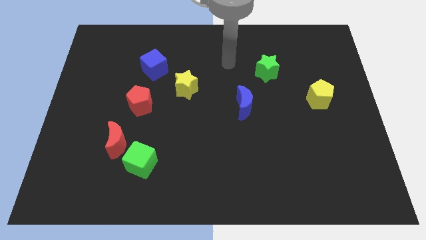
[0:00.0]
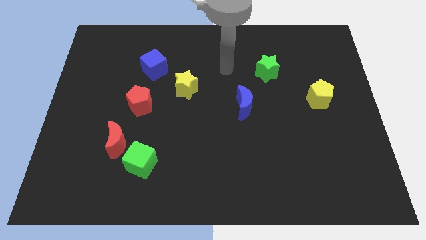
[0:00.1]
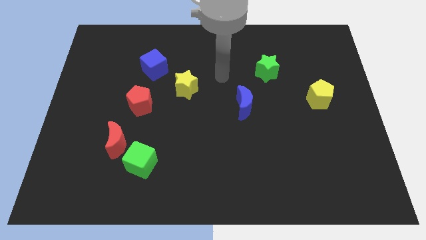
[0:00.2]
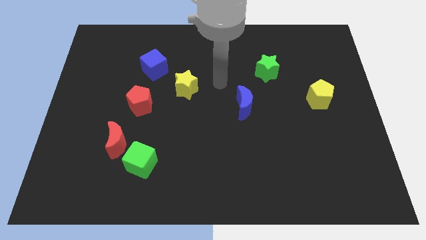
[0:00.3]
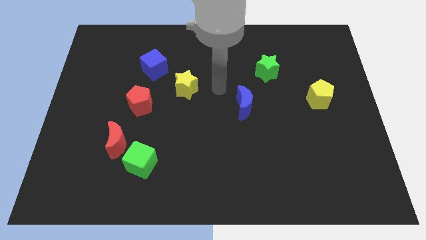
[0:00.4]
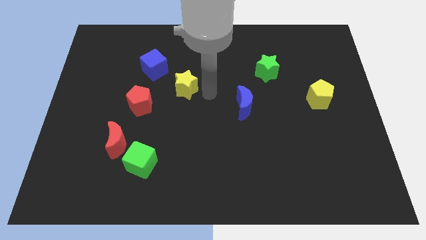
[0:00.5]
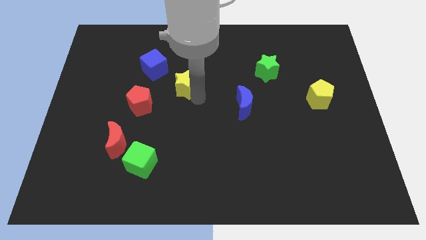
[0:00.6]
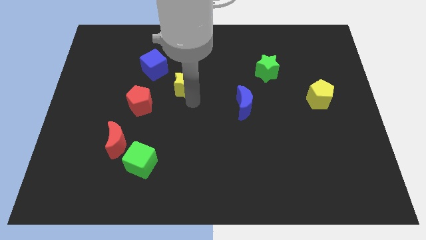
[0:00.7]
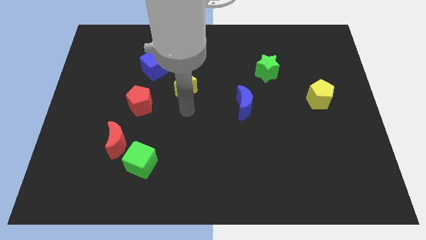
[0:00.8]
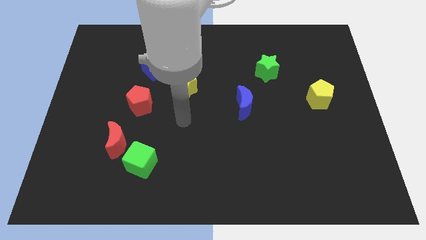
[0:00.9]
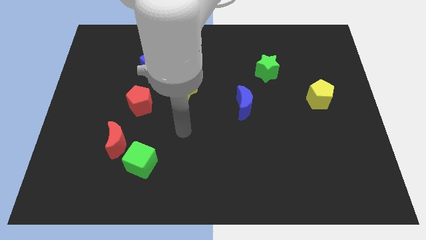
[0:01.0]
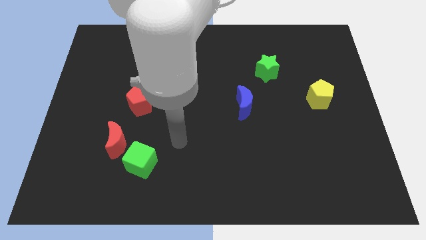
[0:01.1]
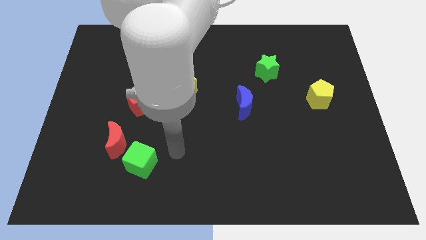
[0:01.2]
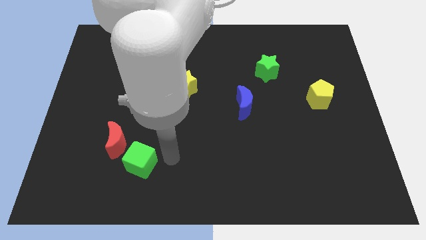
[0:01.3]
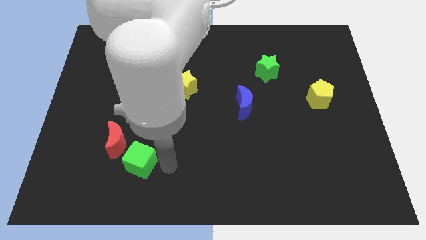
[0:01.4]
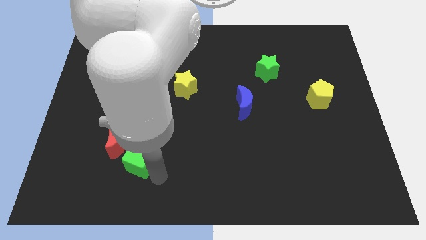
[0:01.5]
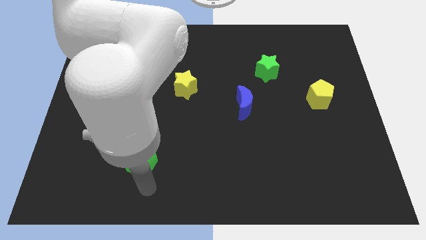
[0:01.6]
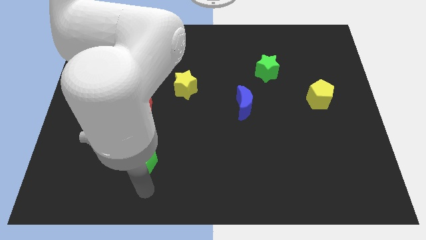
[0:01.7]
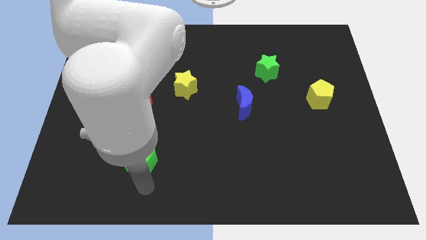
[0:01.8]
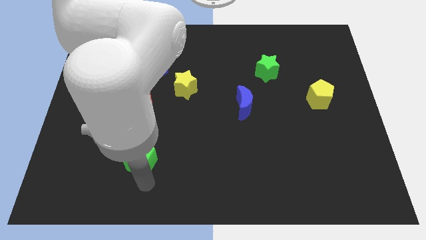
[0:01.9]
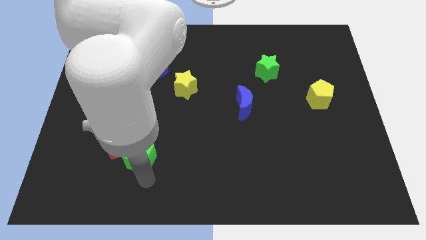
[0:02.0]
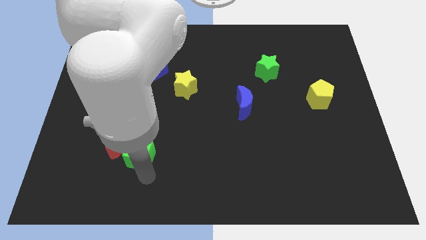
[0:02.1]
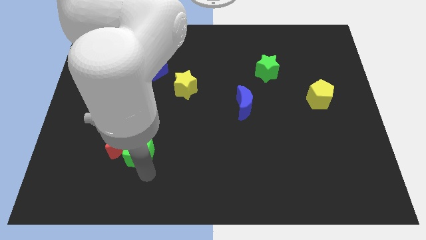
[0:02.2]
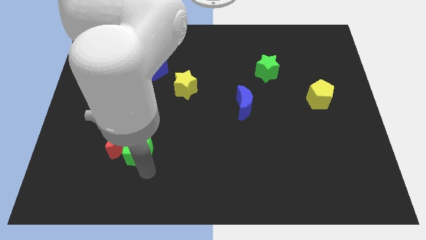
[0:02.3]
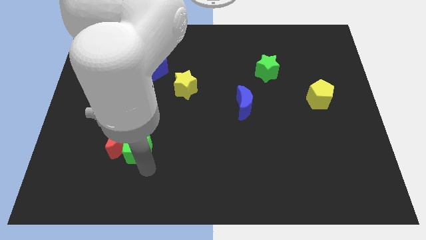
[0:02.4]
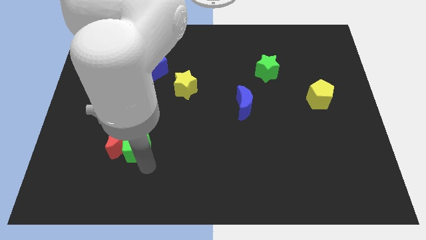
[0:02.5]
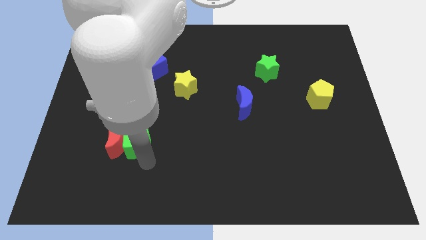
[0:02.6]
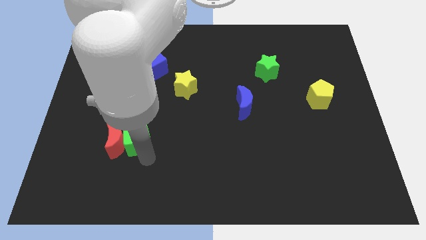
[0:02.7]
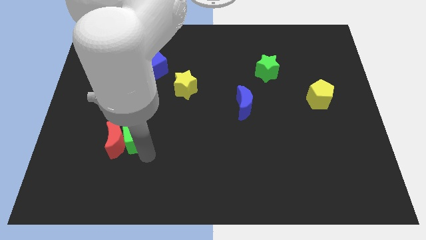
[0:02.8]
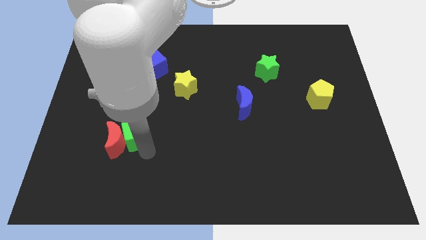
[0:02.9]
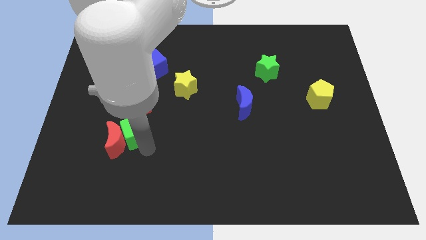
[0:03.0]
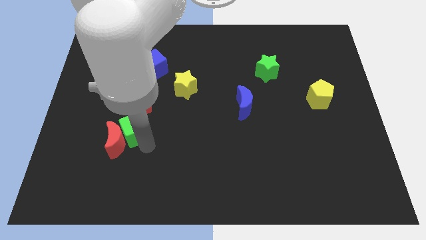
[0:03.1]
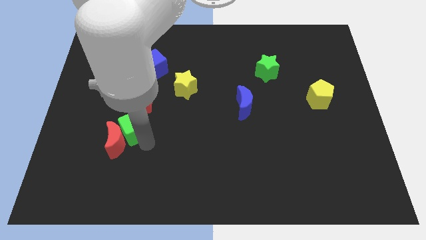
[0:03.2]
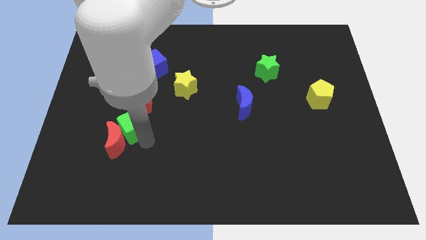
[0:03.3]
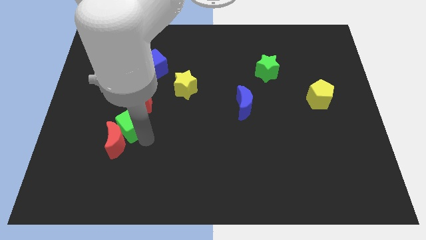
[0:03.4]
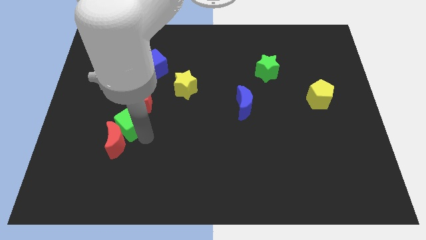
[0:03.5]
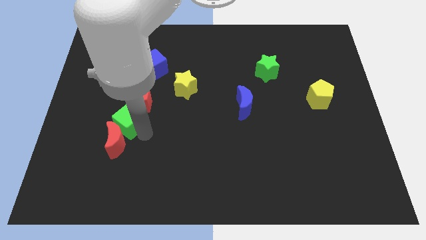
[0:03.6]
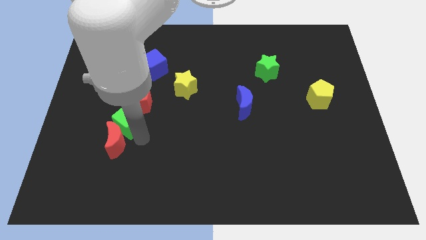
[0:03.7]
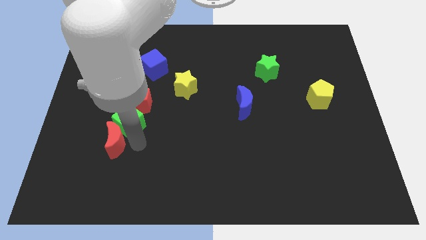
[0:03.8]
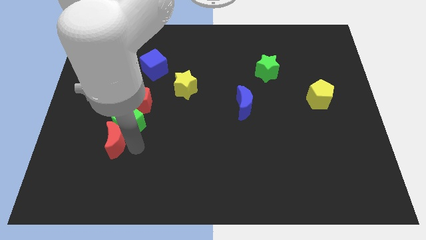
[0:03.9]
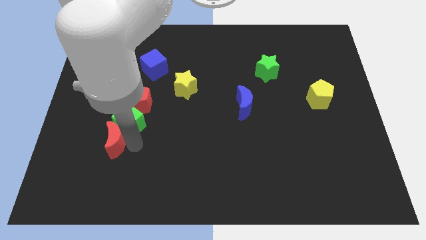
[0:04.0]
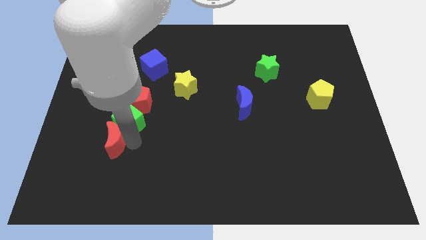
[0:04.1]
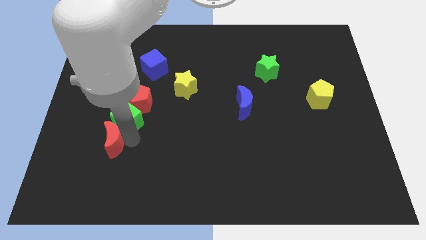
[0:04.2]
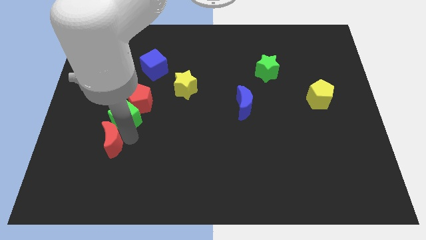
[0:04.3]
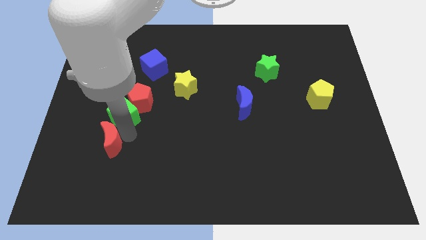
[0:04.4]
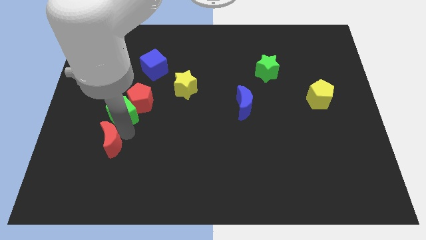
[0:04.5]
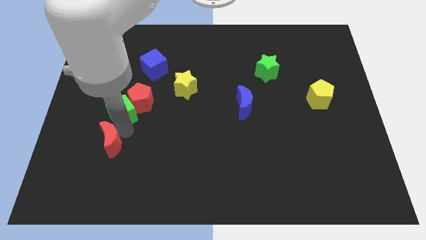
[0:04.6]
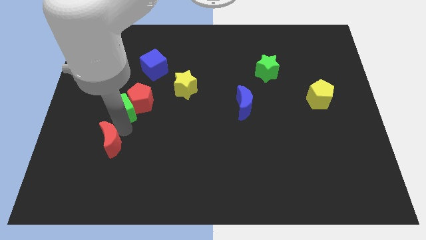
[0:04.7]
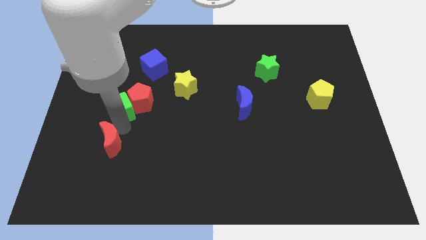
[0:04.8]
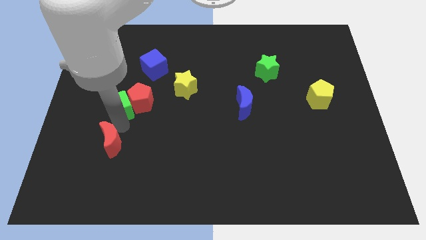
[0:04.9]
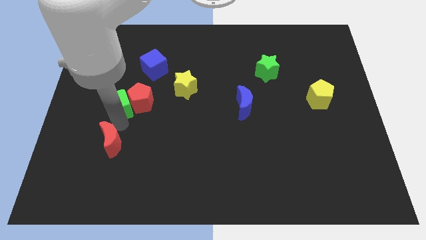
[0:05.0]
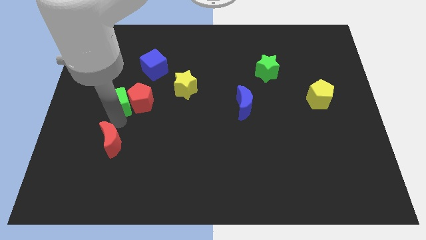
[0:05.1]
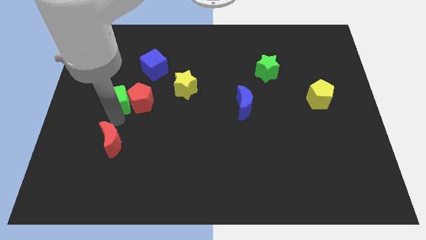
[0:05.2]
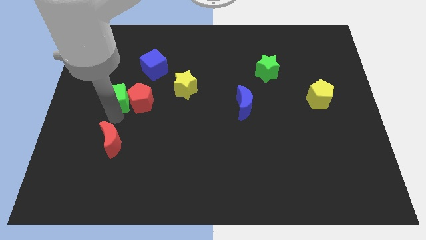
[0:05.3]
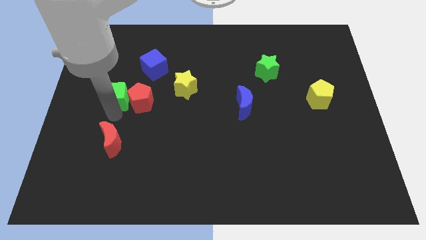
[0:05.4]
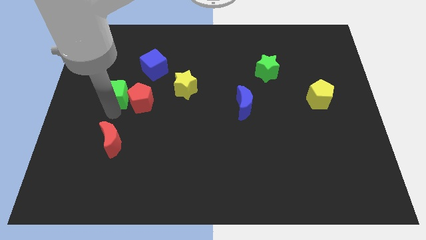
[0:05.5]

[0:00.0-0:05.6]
move the green cube diagonally down and to the left of the blue cube

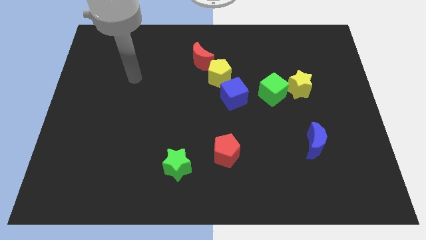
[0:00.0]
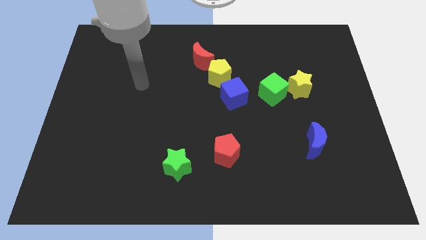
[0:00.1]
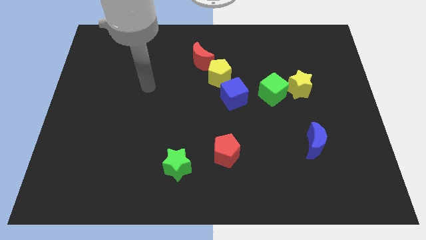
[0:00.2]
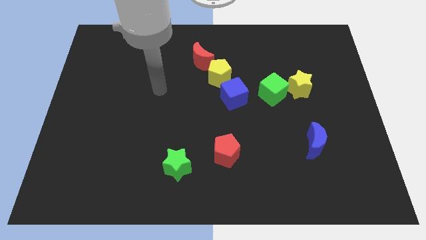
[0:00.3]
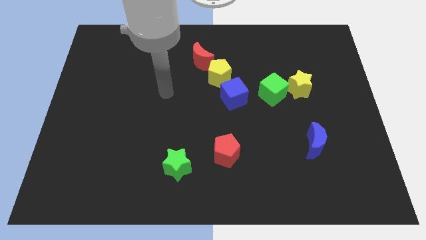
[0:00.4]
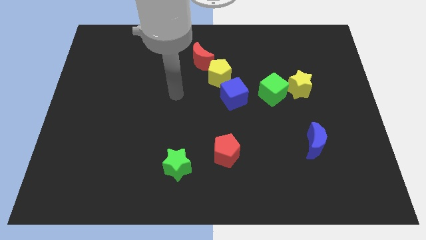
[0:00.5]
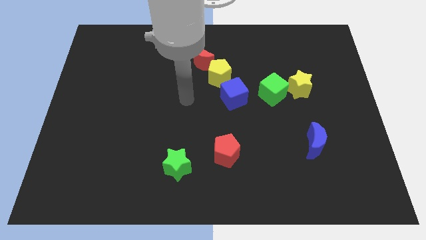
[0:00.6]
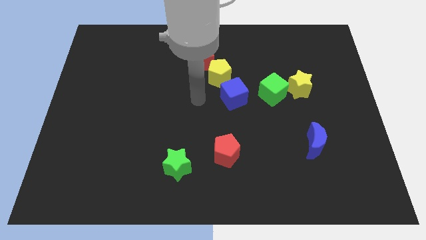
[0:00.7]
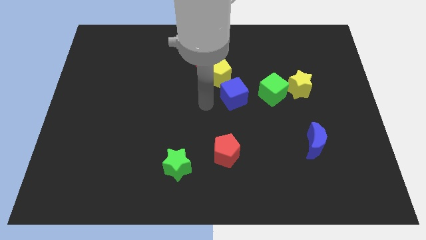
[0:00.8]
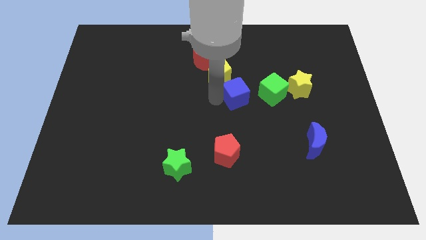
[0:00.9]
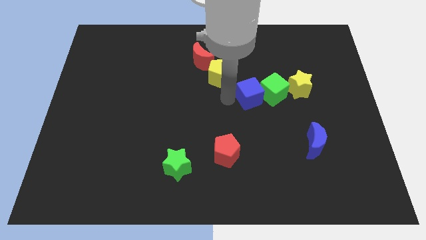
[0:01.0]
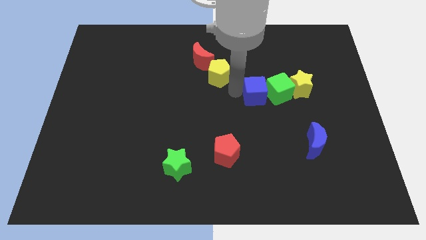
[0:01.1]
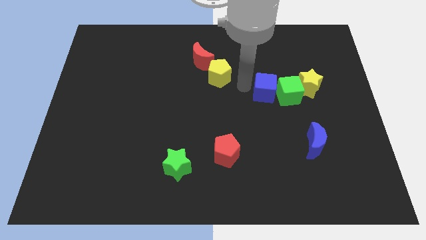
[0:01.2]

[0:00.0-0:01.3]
slide the green cube above the blue moon

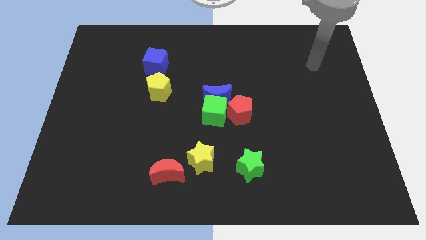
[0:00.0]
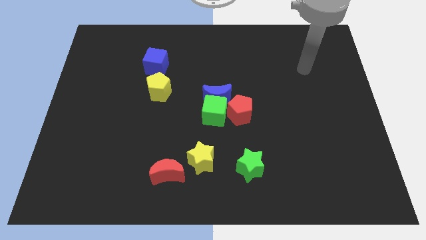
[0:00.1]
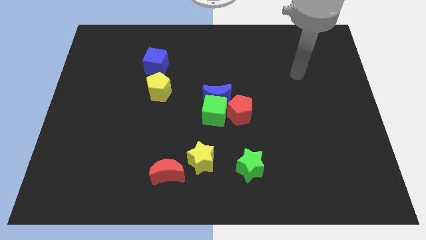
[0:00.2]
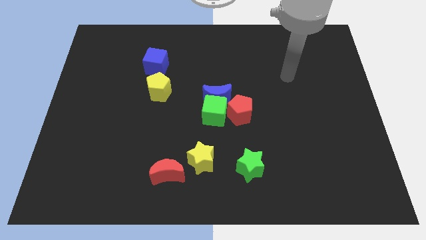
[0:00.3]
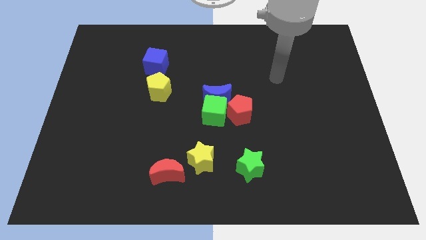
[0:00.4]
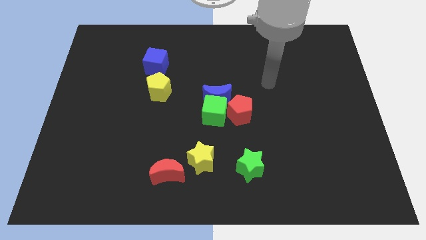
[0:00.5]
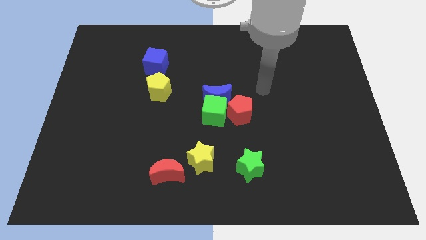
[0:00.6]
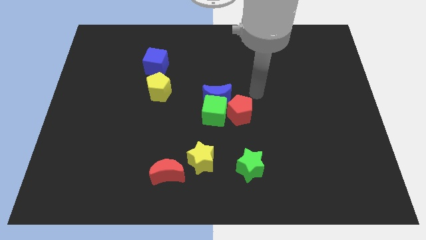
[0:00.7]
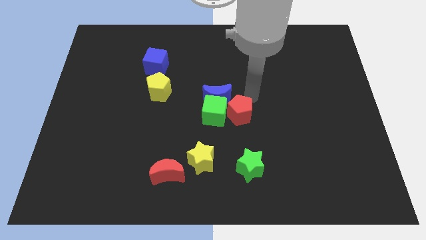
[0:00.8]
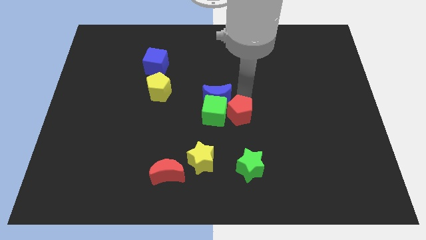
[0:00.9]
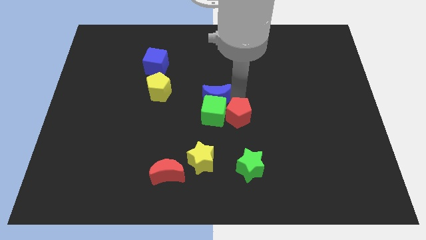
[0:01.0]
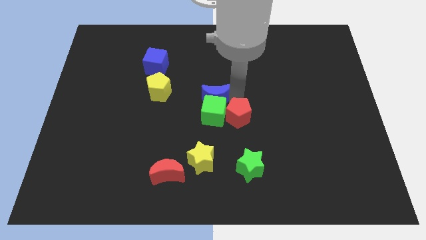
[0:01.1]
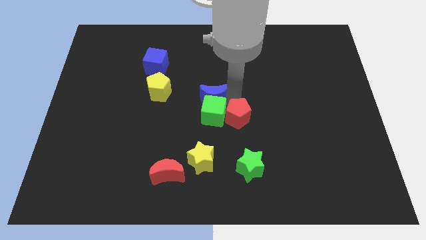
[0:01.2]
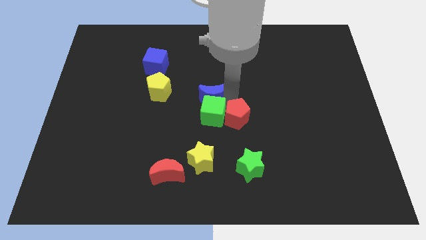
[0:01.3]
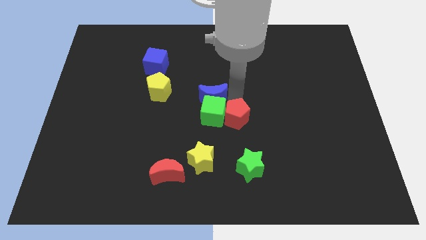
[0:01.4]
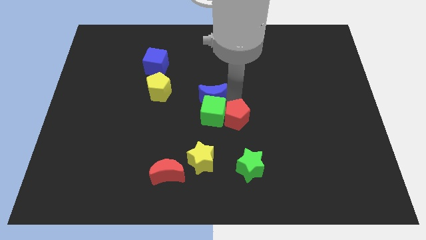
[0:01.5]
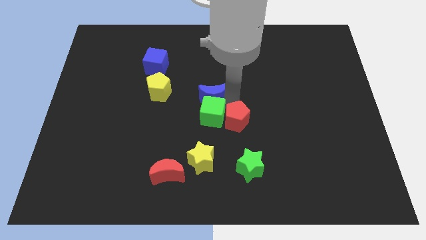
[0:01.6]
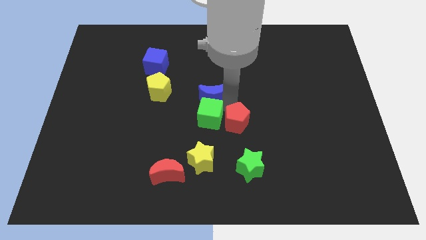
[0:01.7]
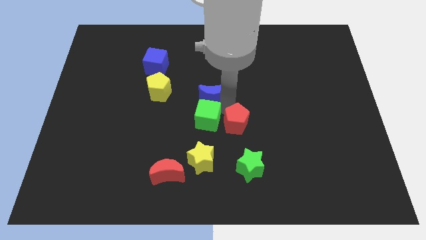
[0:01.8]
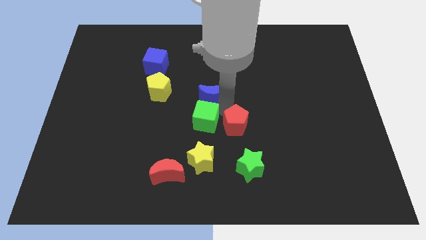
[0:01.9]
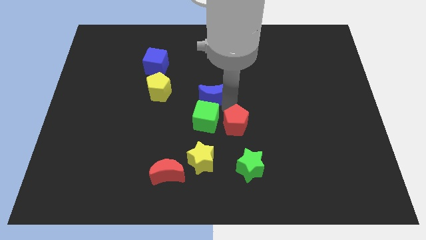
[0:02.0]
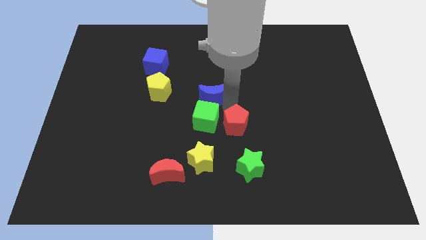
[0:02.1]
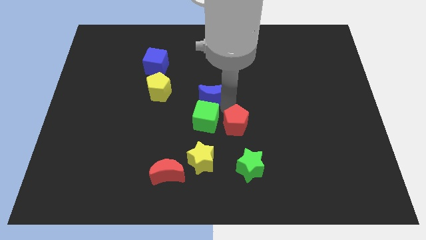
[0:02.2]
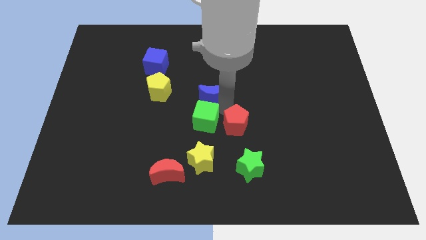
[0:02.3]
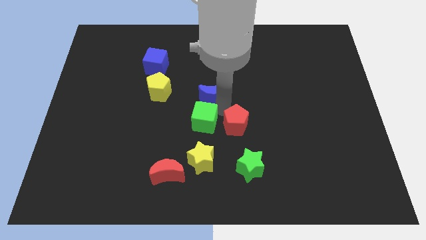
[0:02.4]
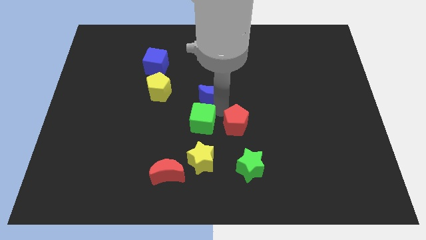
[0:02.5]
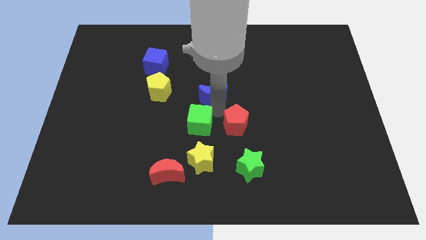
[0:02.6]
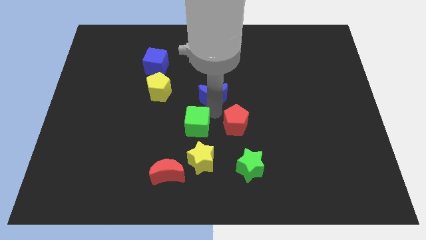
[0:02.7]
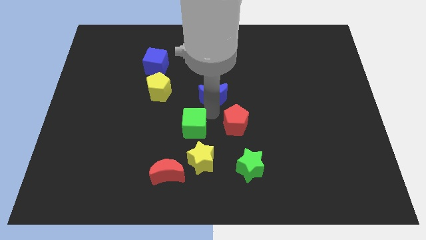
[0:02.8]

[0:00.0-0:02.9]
slide the green cube above the red moon
